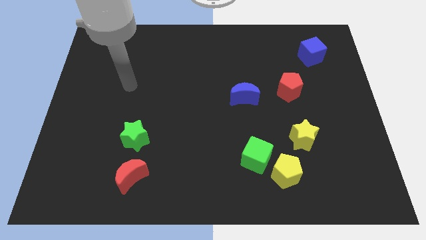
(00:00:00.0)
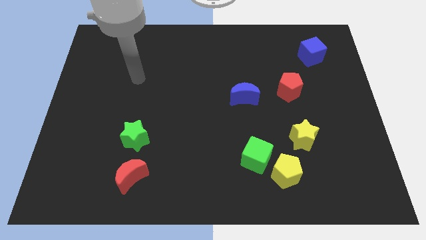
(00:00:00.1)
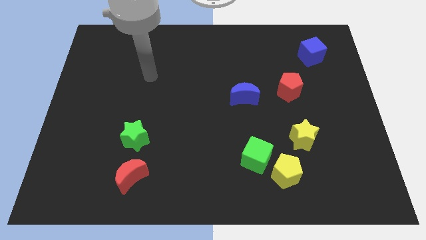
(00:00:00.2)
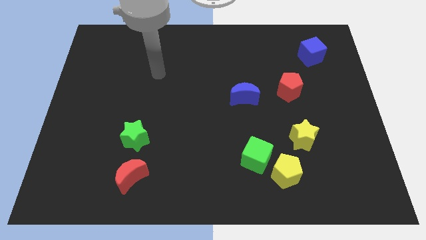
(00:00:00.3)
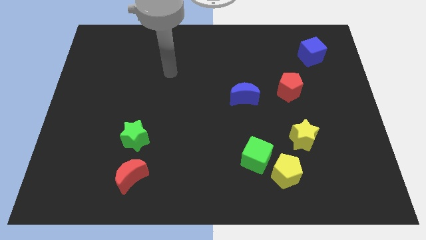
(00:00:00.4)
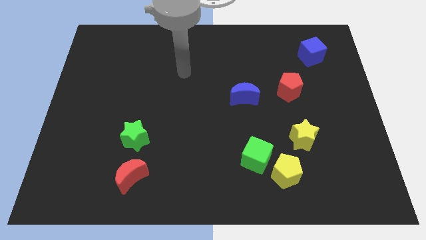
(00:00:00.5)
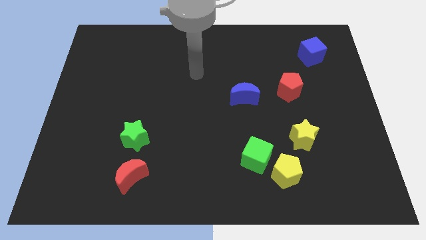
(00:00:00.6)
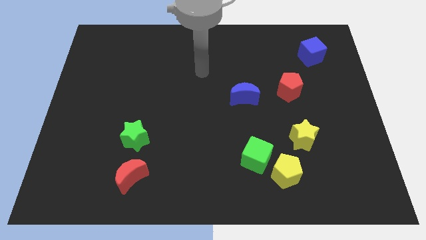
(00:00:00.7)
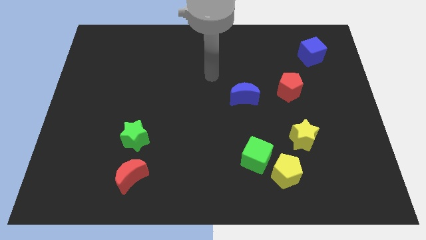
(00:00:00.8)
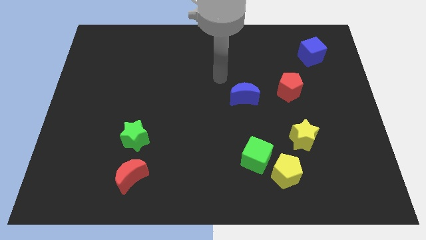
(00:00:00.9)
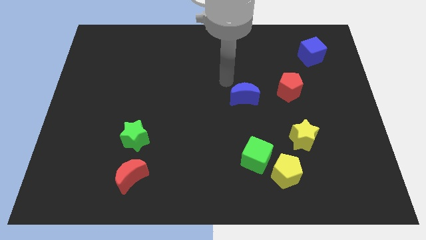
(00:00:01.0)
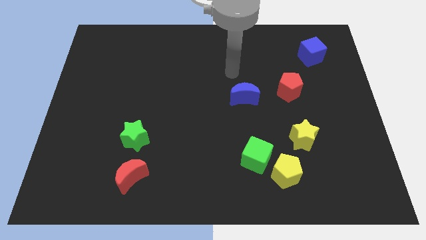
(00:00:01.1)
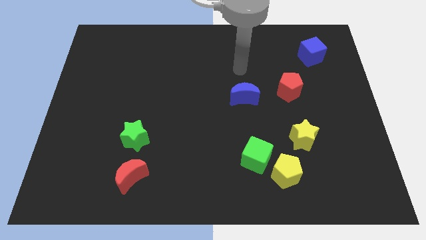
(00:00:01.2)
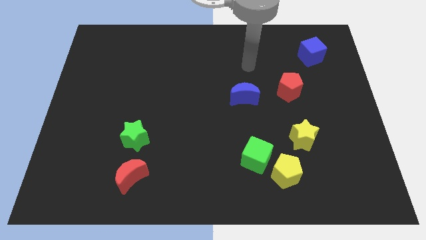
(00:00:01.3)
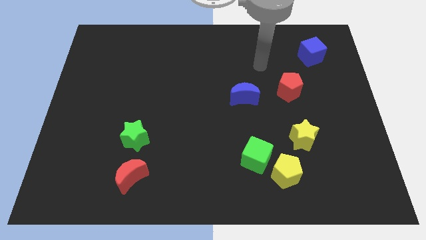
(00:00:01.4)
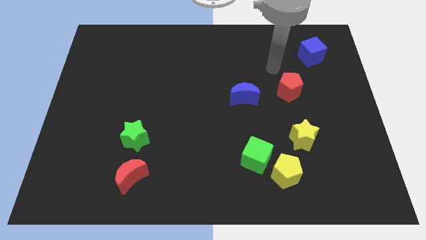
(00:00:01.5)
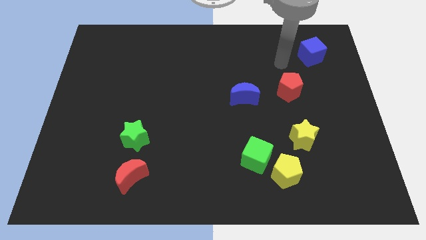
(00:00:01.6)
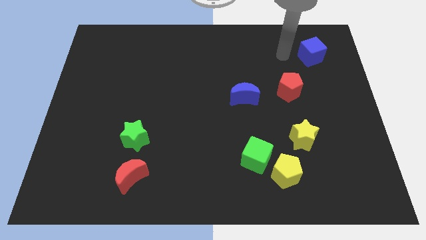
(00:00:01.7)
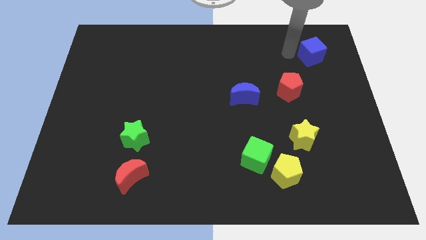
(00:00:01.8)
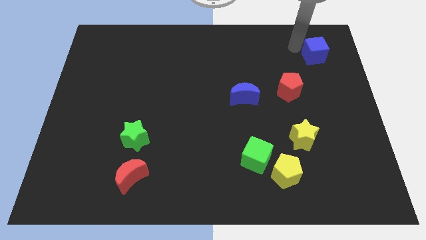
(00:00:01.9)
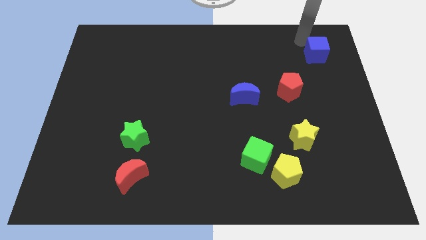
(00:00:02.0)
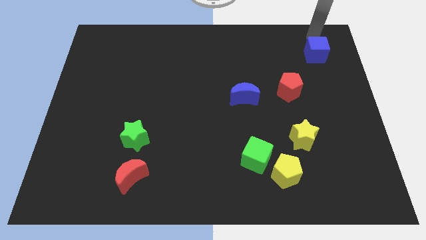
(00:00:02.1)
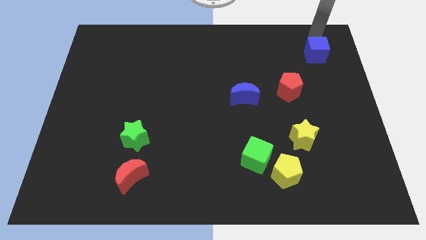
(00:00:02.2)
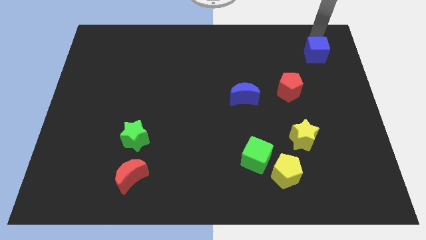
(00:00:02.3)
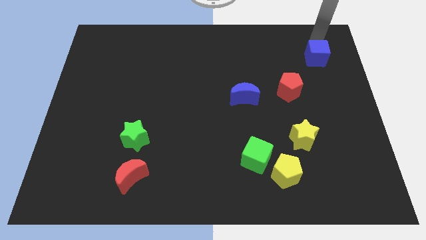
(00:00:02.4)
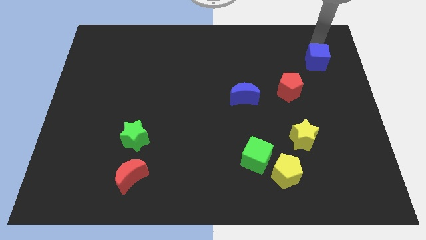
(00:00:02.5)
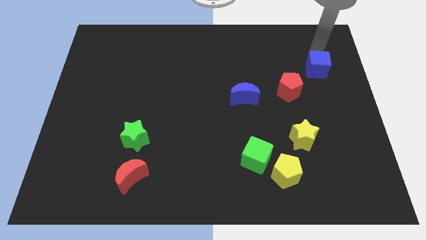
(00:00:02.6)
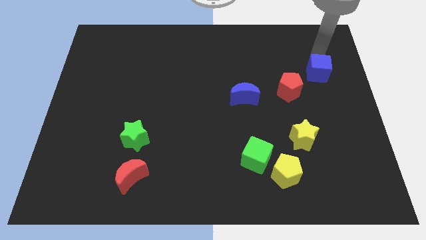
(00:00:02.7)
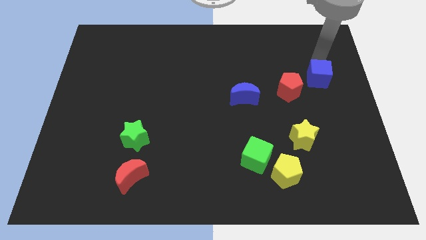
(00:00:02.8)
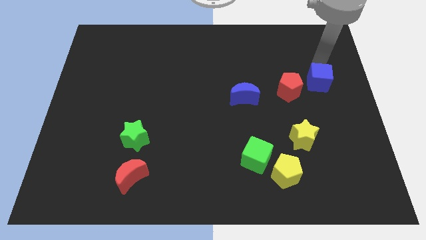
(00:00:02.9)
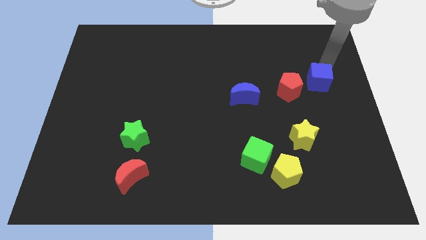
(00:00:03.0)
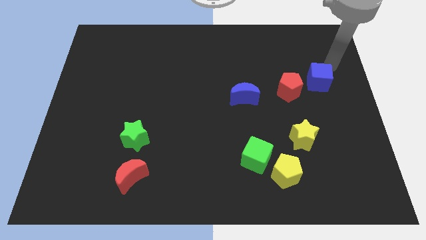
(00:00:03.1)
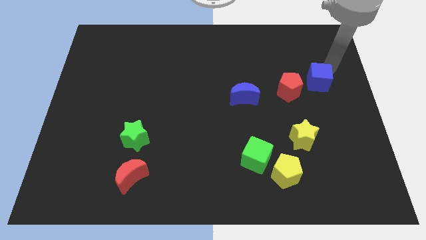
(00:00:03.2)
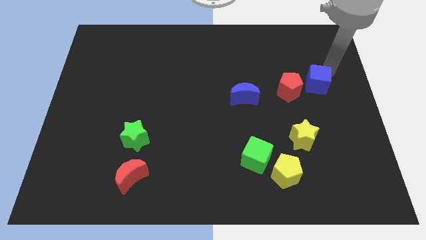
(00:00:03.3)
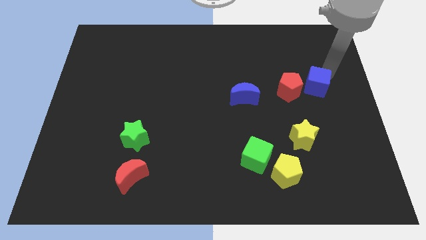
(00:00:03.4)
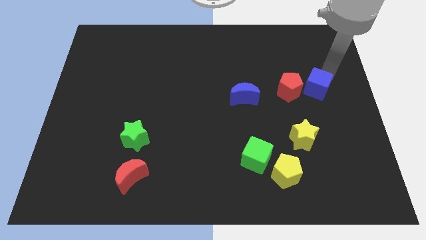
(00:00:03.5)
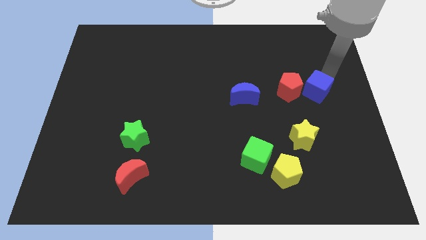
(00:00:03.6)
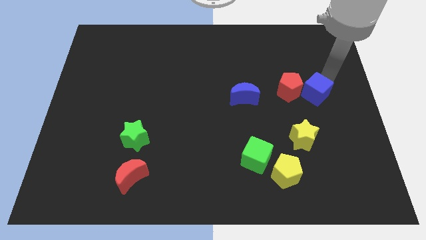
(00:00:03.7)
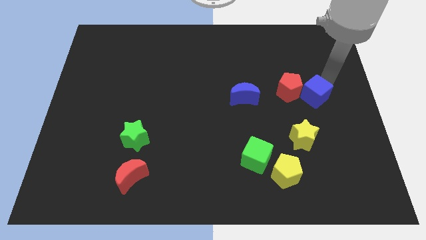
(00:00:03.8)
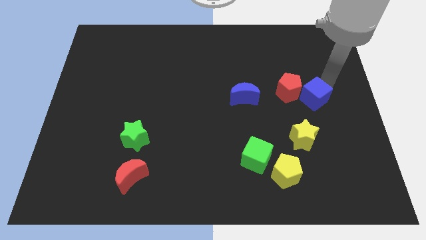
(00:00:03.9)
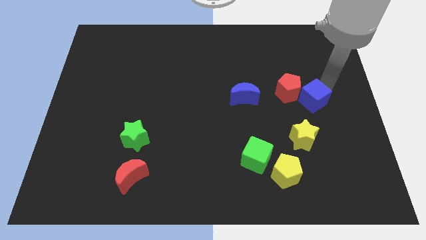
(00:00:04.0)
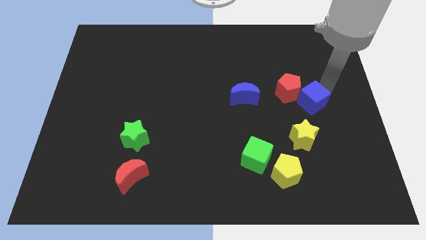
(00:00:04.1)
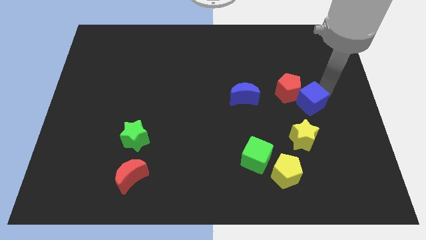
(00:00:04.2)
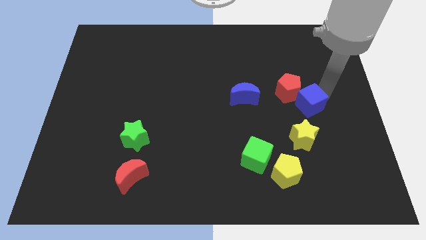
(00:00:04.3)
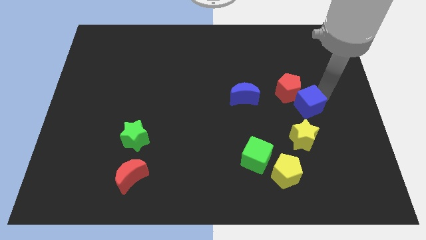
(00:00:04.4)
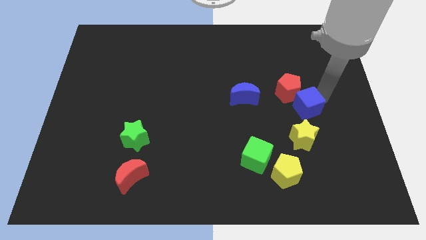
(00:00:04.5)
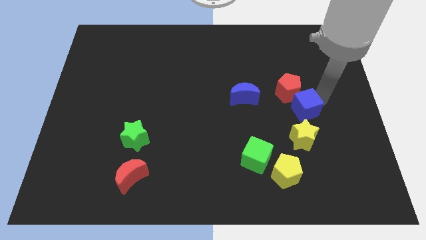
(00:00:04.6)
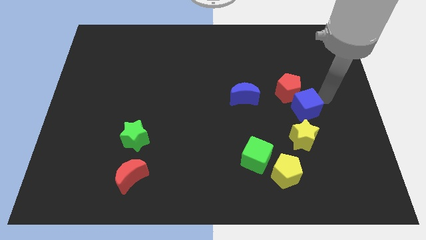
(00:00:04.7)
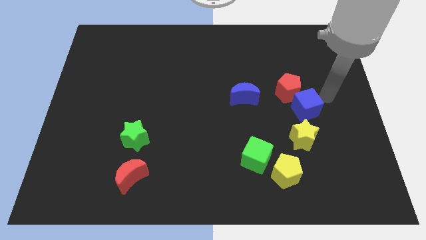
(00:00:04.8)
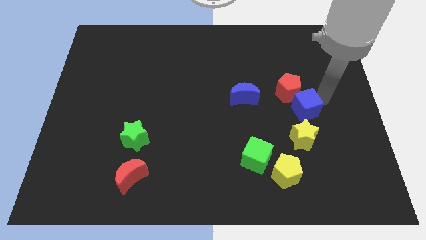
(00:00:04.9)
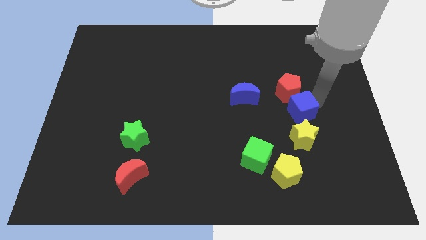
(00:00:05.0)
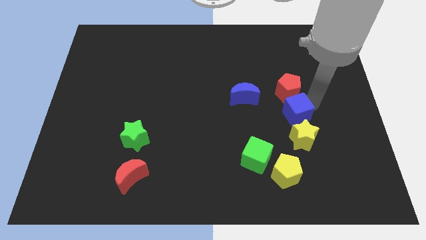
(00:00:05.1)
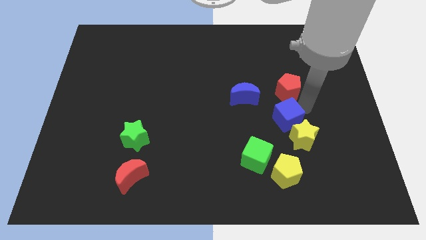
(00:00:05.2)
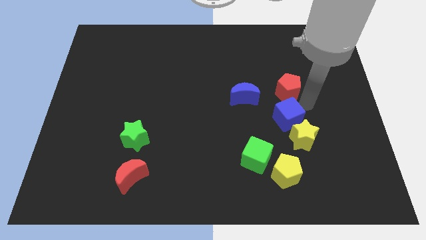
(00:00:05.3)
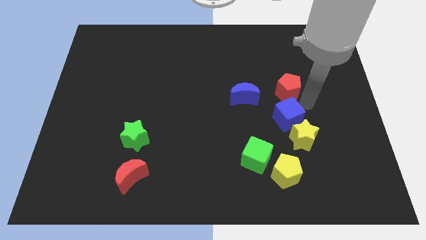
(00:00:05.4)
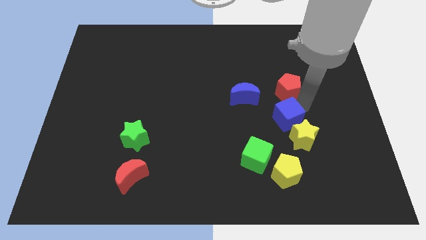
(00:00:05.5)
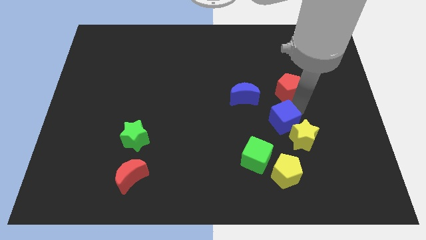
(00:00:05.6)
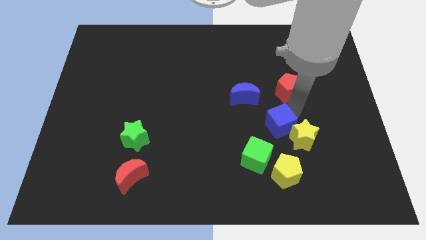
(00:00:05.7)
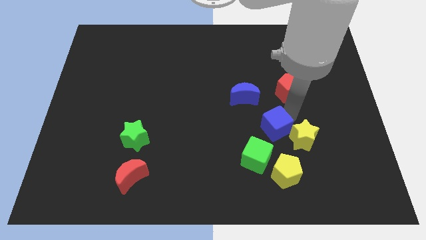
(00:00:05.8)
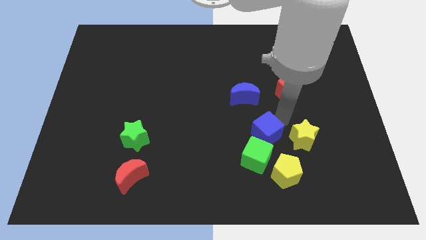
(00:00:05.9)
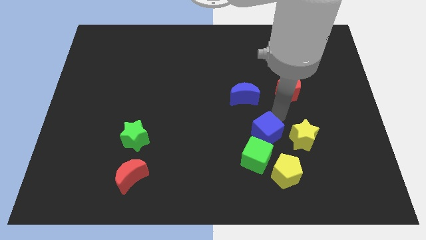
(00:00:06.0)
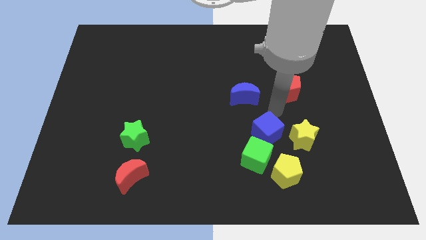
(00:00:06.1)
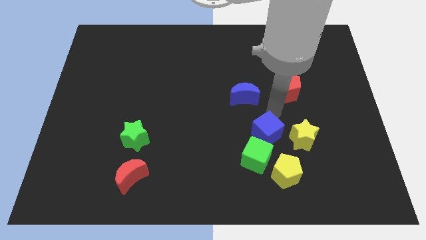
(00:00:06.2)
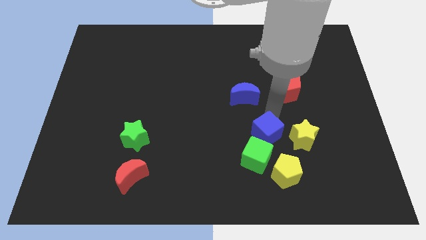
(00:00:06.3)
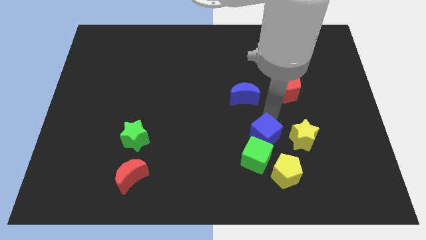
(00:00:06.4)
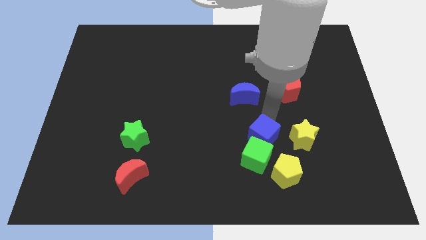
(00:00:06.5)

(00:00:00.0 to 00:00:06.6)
slide the blue cube close to the green cube
